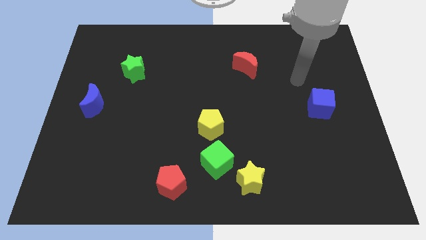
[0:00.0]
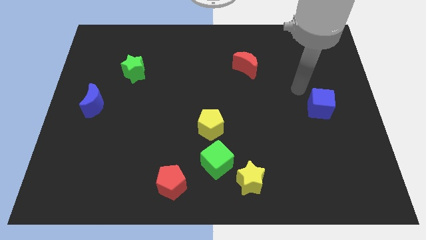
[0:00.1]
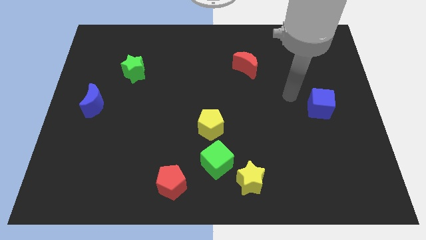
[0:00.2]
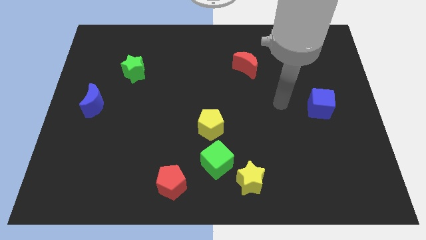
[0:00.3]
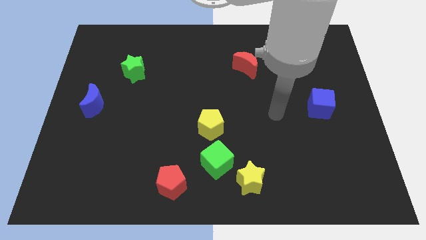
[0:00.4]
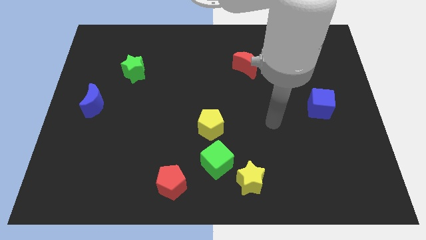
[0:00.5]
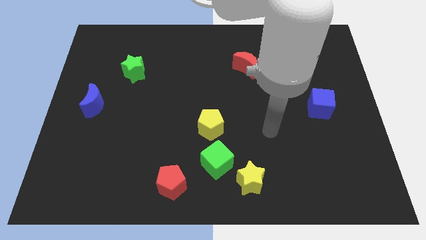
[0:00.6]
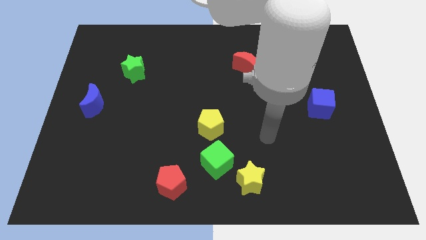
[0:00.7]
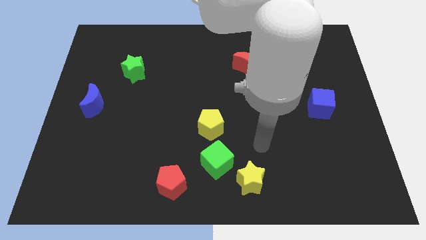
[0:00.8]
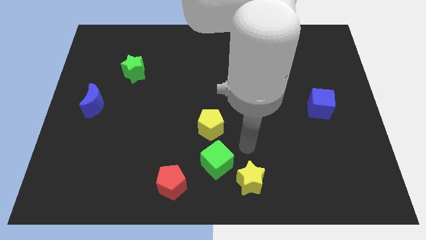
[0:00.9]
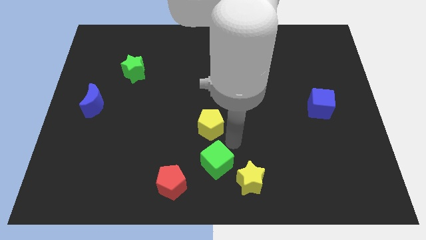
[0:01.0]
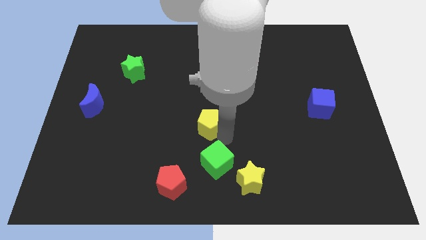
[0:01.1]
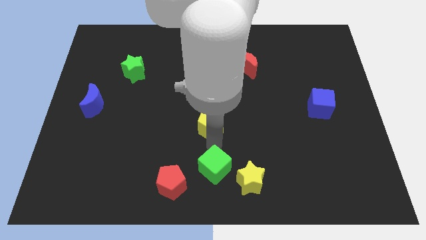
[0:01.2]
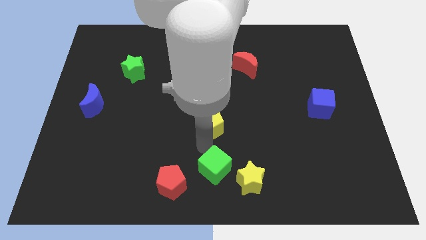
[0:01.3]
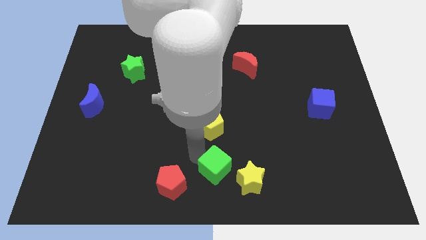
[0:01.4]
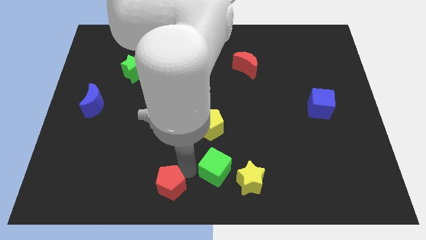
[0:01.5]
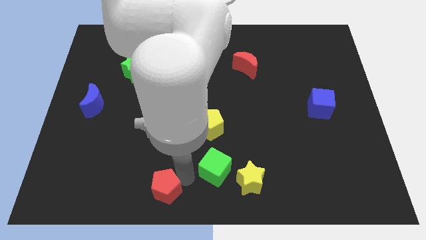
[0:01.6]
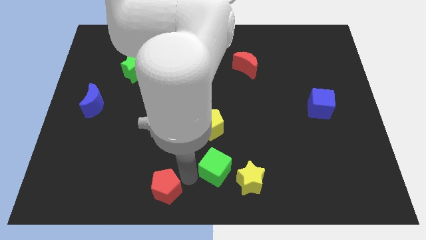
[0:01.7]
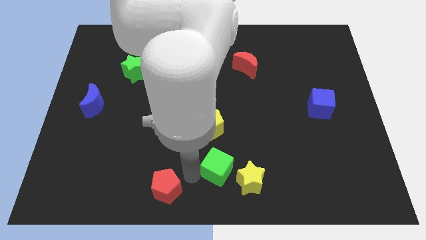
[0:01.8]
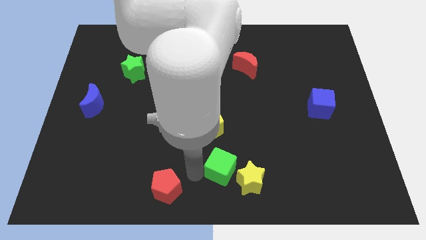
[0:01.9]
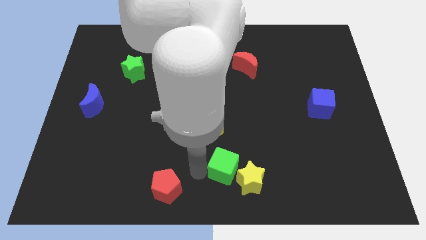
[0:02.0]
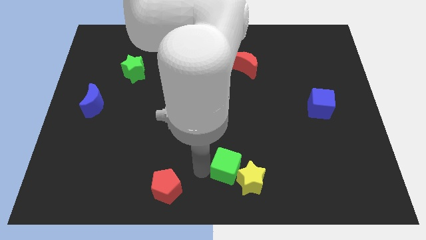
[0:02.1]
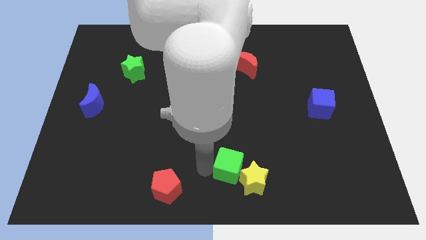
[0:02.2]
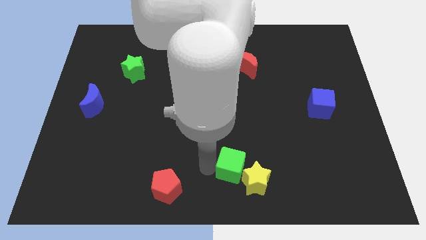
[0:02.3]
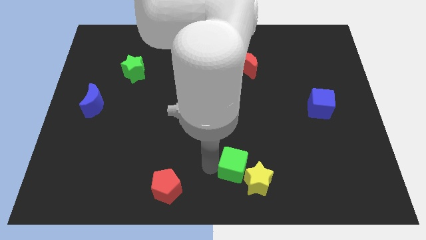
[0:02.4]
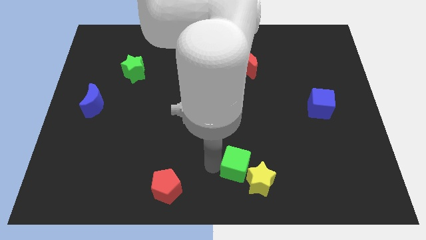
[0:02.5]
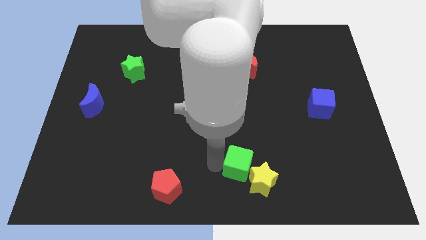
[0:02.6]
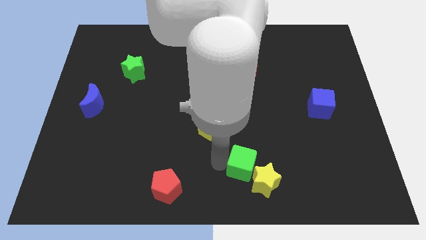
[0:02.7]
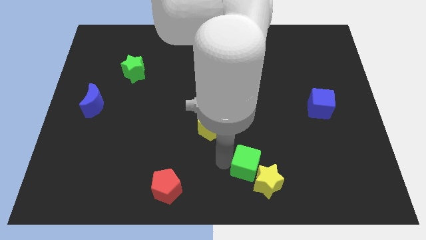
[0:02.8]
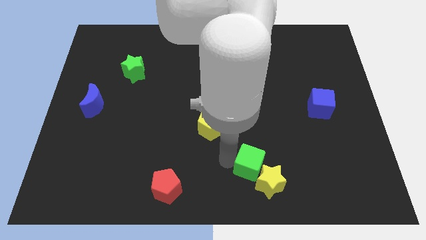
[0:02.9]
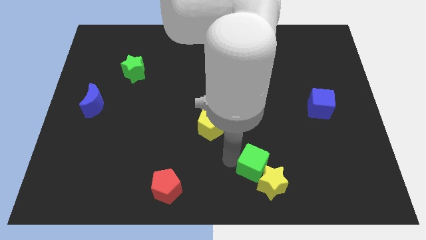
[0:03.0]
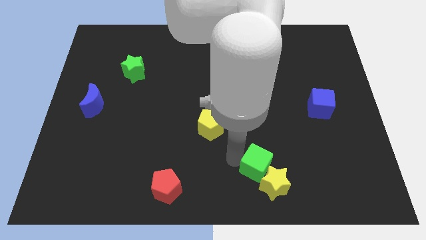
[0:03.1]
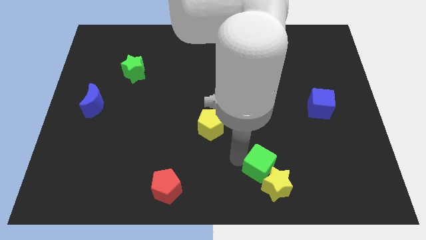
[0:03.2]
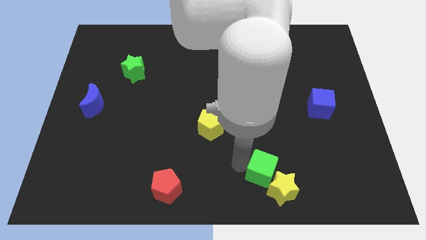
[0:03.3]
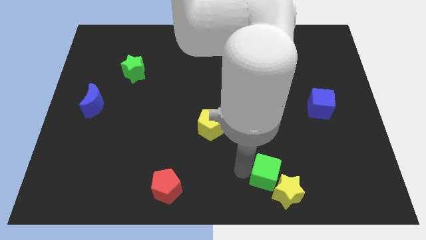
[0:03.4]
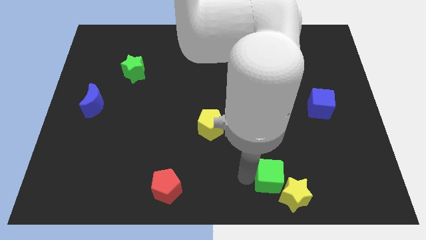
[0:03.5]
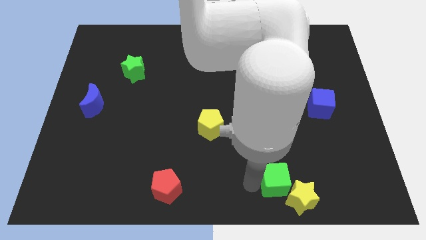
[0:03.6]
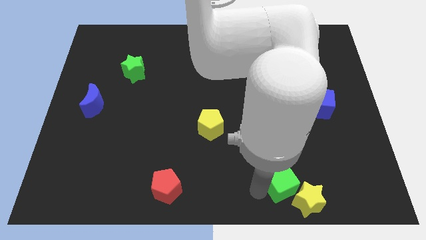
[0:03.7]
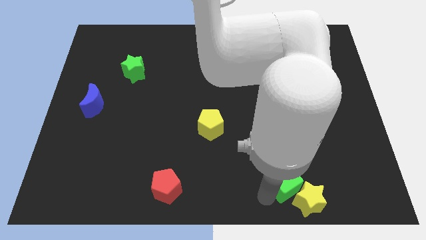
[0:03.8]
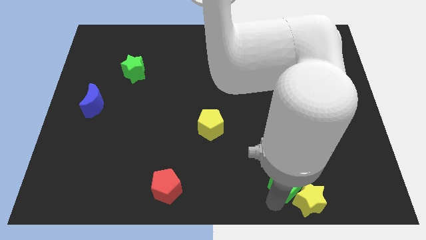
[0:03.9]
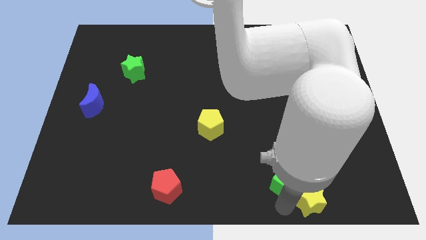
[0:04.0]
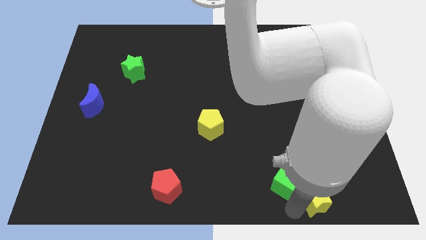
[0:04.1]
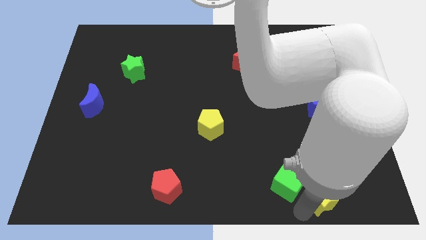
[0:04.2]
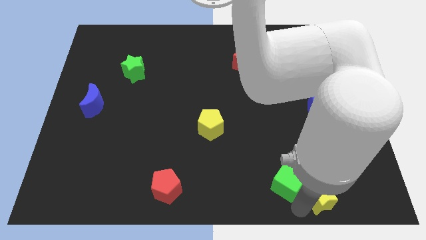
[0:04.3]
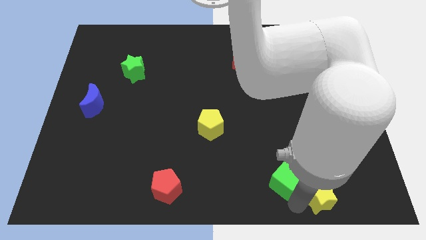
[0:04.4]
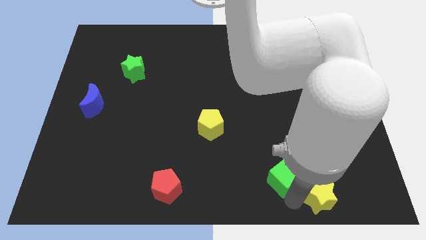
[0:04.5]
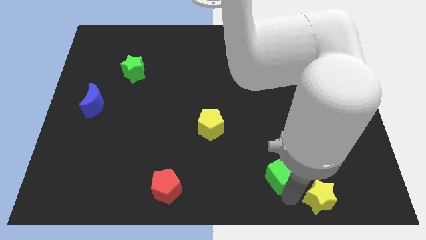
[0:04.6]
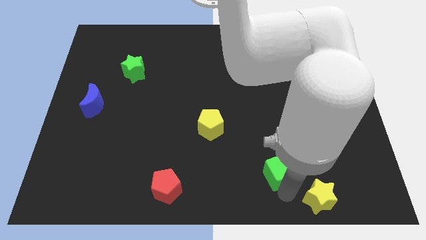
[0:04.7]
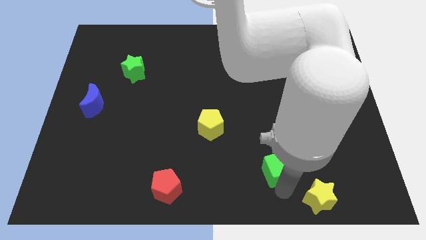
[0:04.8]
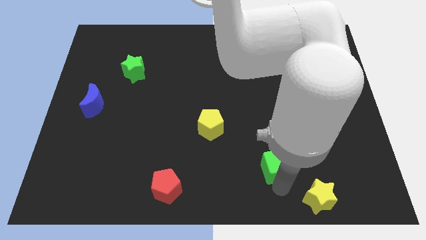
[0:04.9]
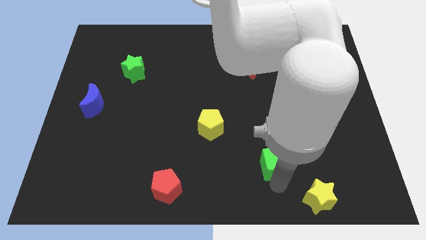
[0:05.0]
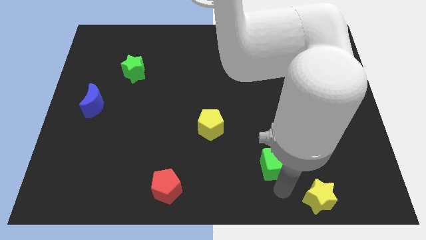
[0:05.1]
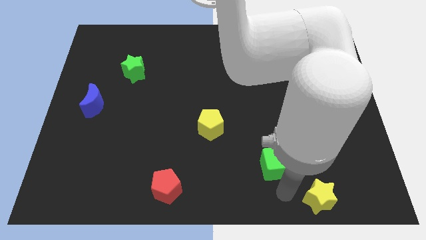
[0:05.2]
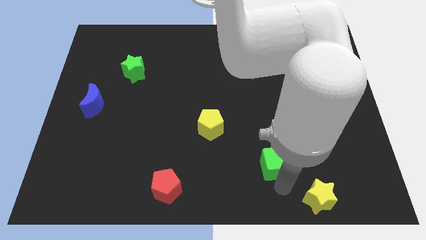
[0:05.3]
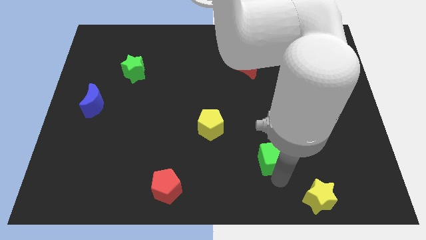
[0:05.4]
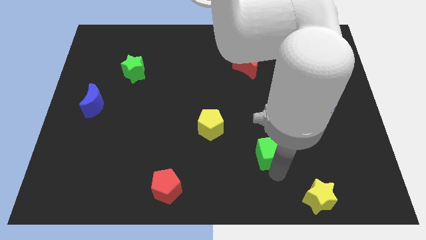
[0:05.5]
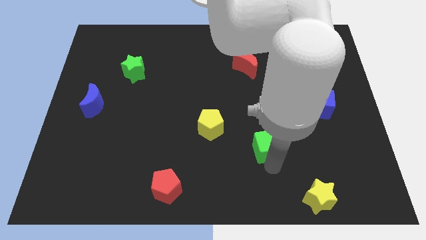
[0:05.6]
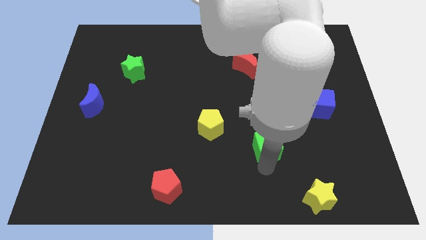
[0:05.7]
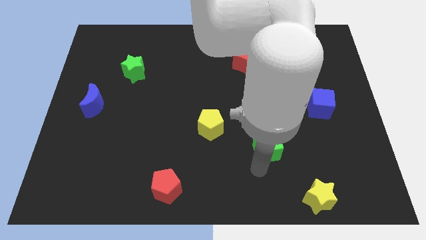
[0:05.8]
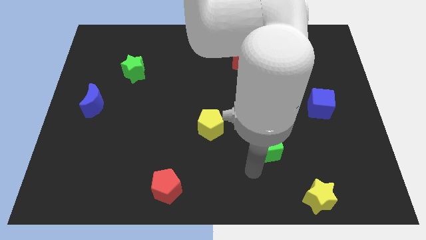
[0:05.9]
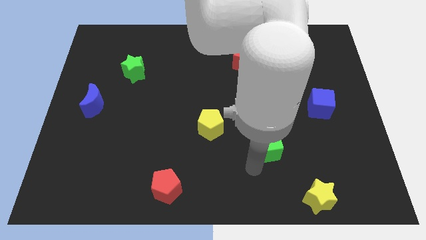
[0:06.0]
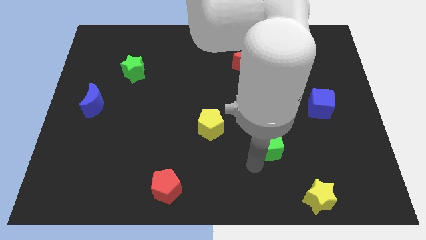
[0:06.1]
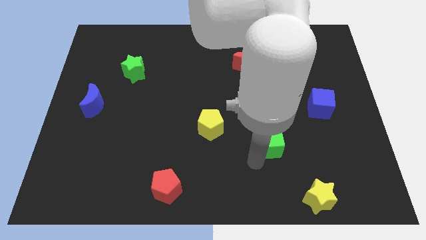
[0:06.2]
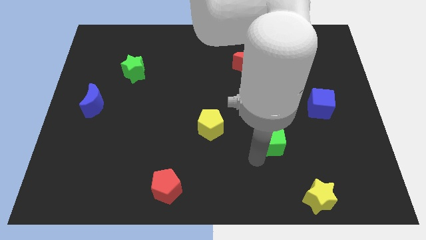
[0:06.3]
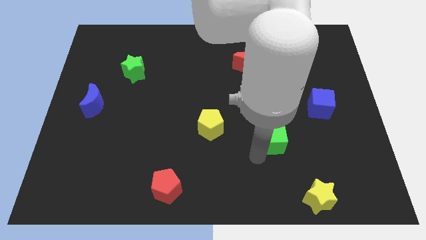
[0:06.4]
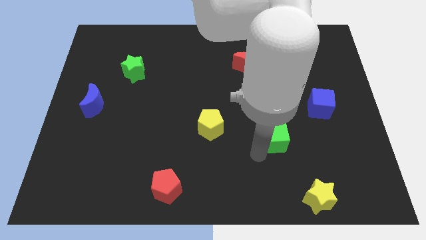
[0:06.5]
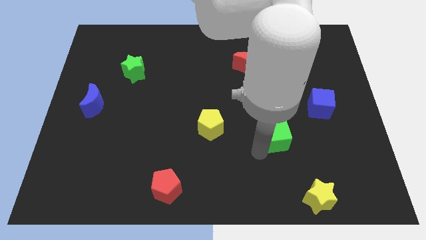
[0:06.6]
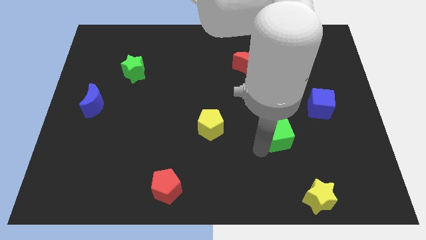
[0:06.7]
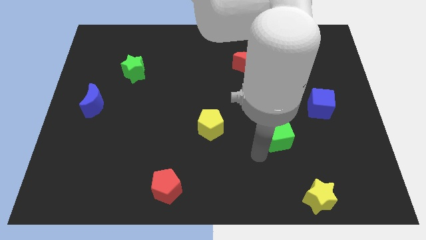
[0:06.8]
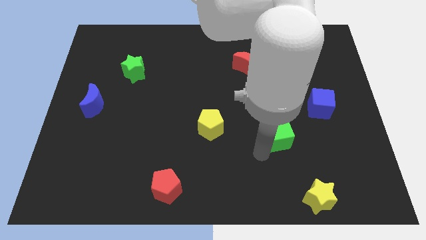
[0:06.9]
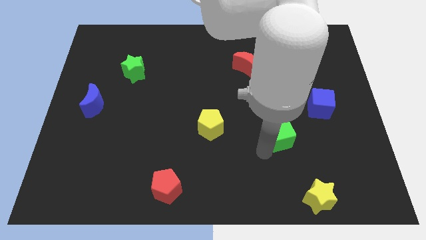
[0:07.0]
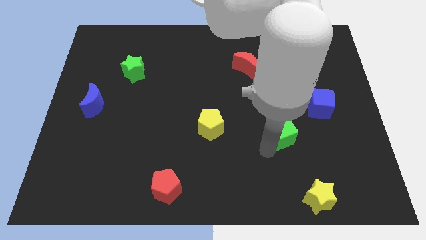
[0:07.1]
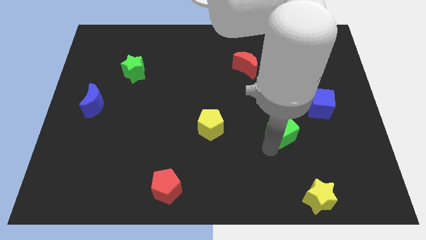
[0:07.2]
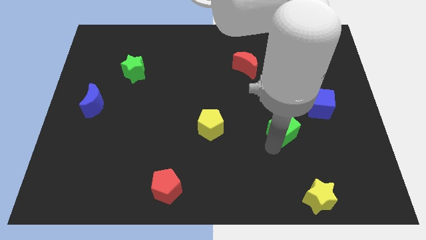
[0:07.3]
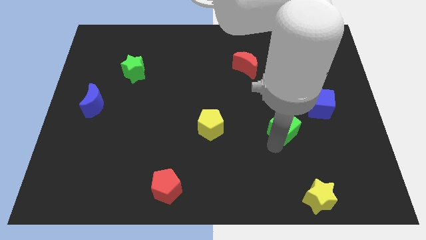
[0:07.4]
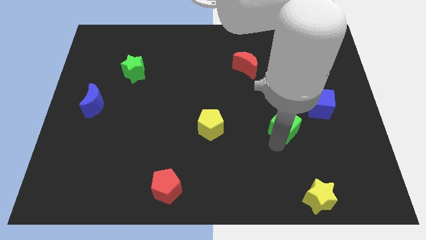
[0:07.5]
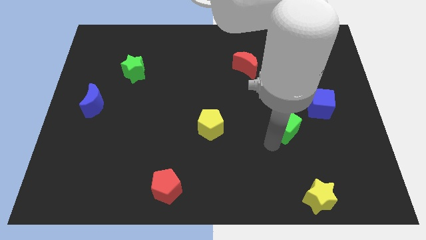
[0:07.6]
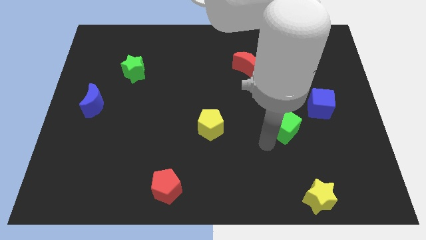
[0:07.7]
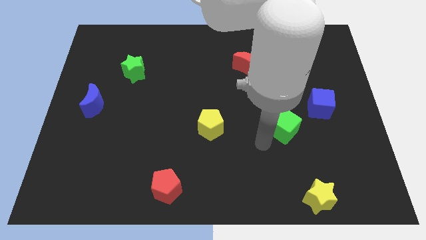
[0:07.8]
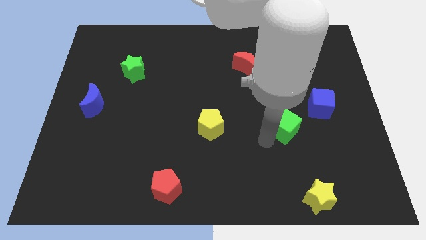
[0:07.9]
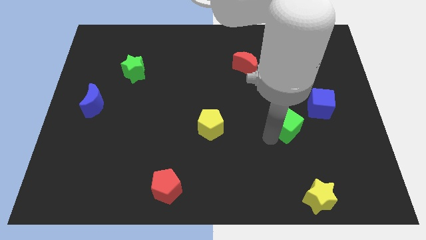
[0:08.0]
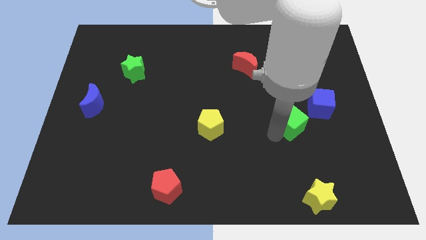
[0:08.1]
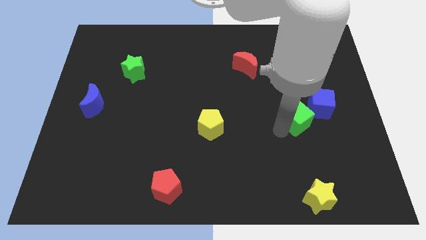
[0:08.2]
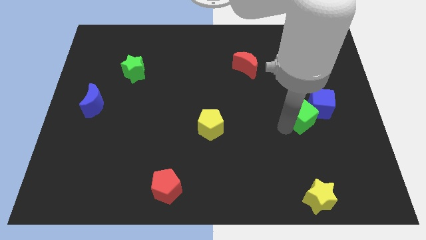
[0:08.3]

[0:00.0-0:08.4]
move the green cube close to the blue cube
